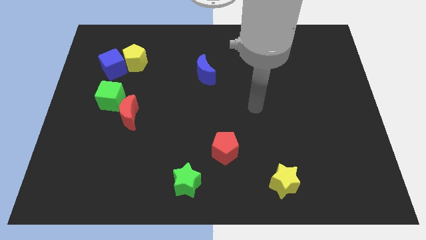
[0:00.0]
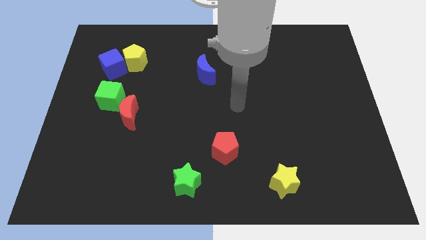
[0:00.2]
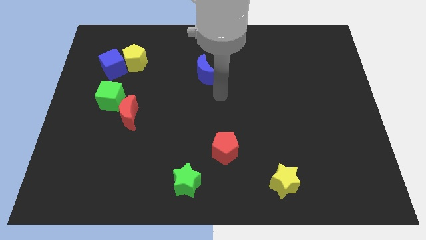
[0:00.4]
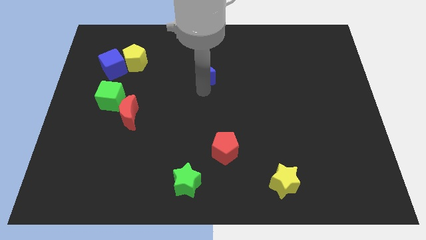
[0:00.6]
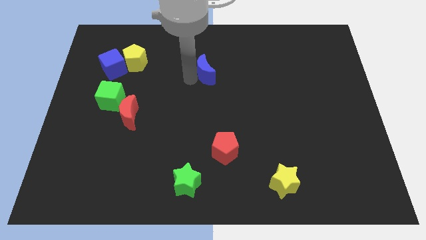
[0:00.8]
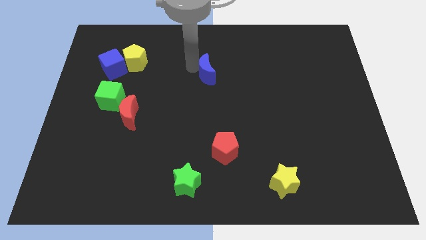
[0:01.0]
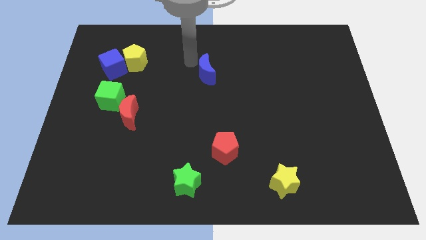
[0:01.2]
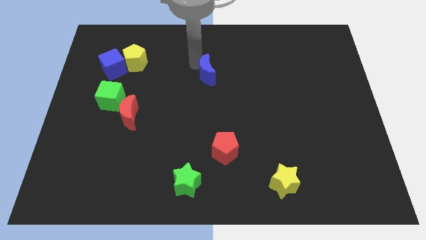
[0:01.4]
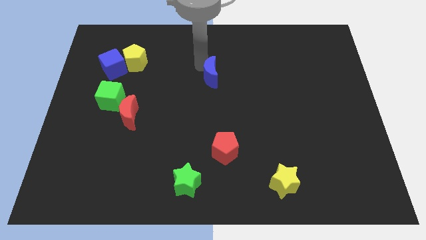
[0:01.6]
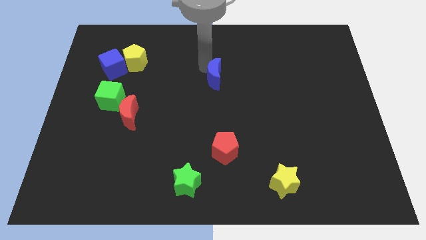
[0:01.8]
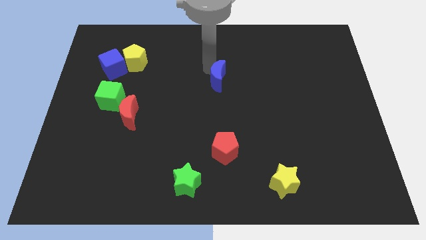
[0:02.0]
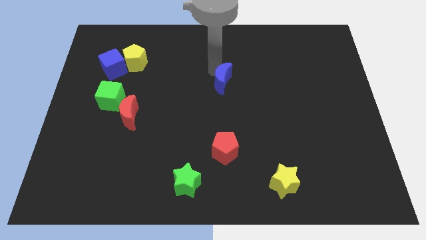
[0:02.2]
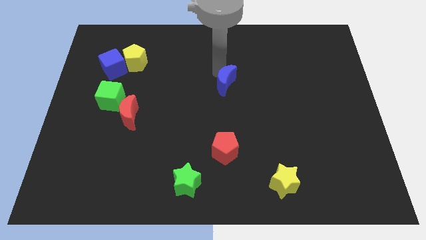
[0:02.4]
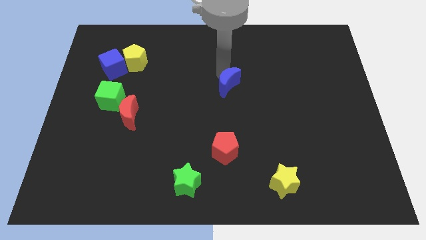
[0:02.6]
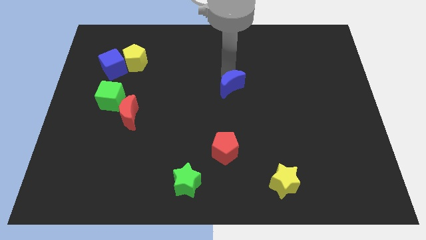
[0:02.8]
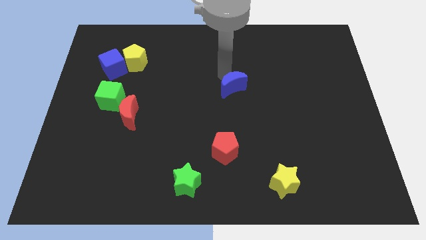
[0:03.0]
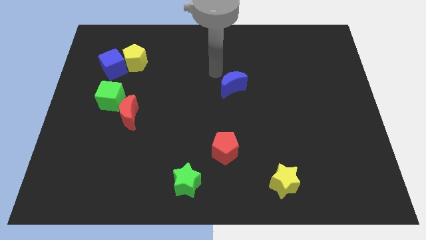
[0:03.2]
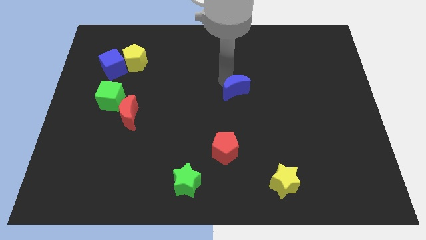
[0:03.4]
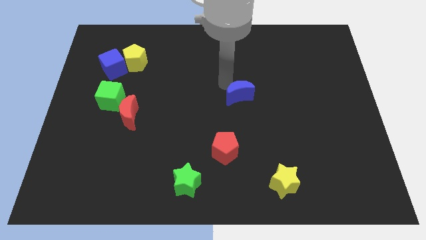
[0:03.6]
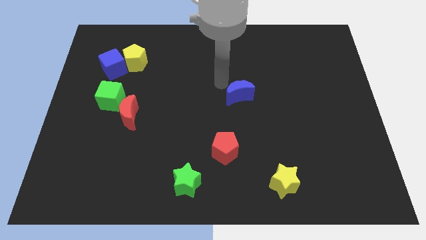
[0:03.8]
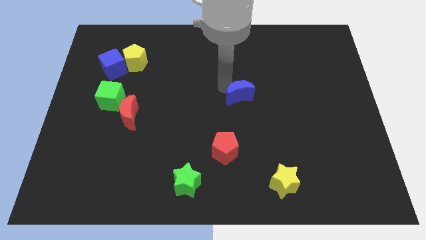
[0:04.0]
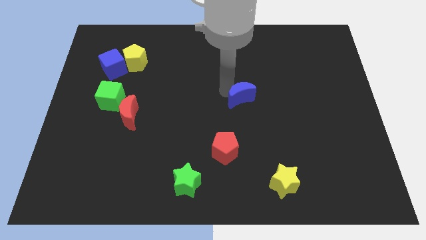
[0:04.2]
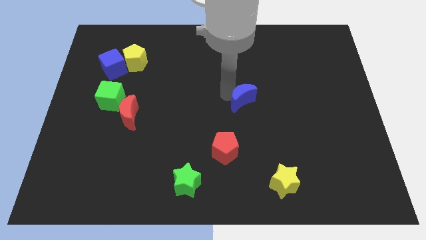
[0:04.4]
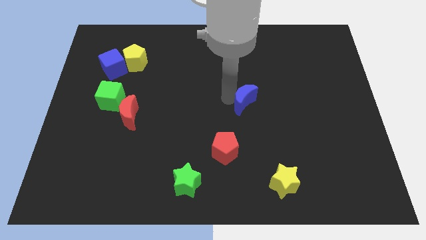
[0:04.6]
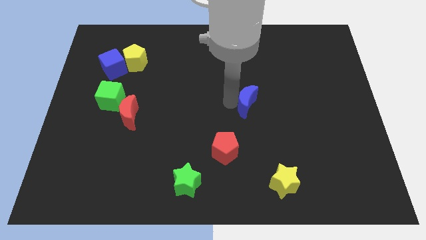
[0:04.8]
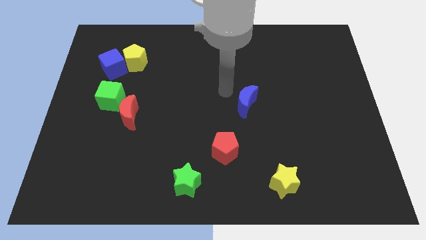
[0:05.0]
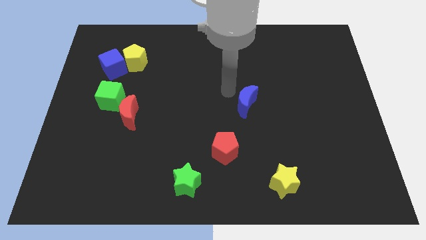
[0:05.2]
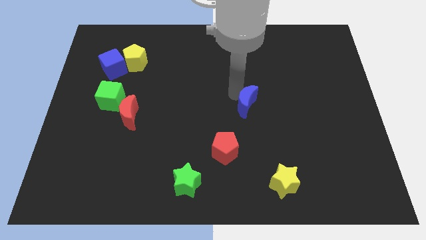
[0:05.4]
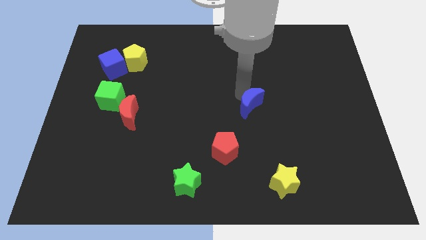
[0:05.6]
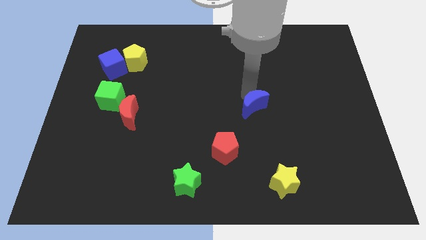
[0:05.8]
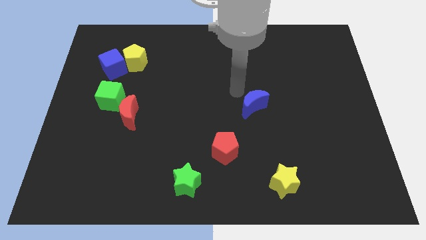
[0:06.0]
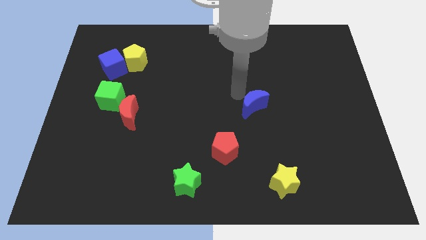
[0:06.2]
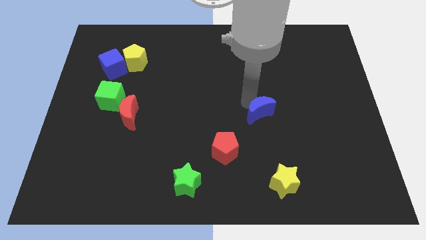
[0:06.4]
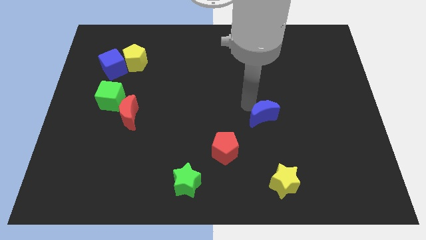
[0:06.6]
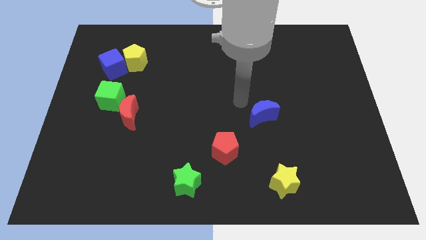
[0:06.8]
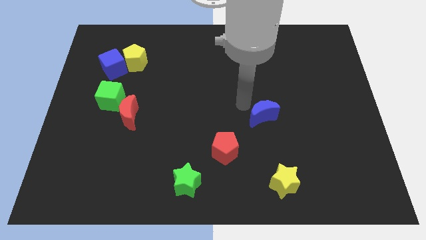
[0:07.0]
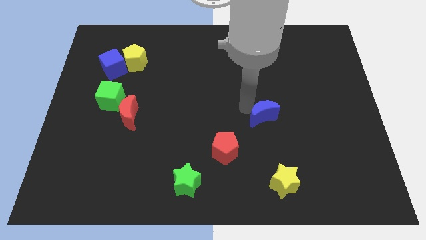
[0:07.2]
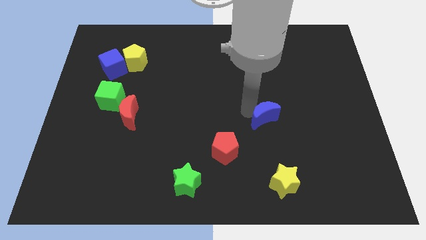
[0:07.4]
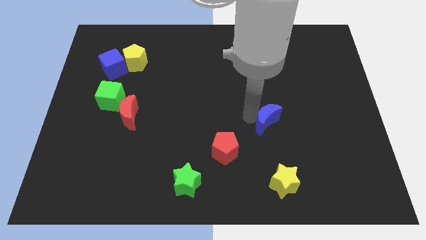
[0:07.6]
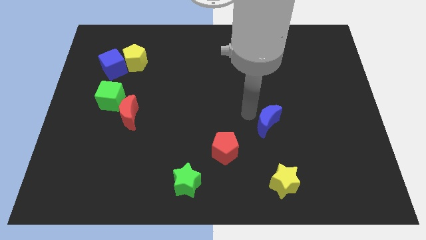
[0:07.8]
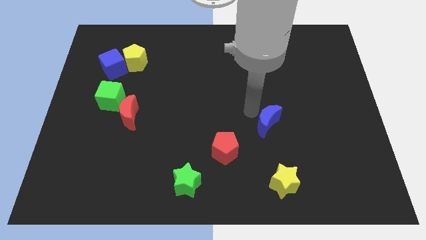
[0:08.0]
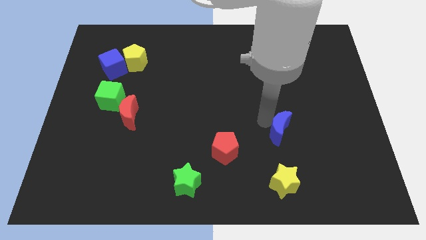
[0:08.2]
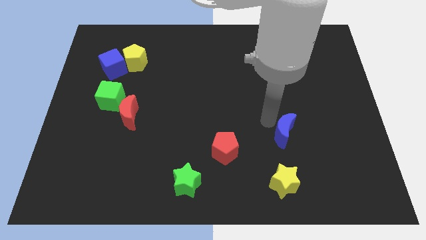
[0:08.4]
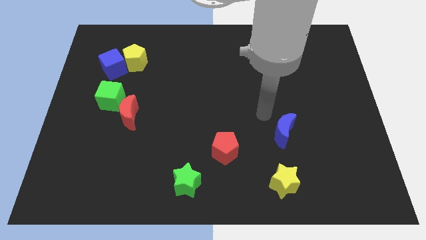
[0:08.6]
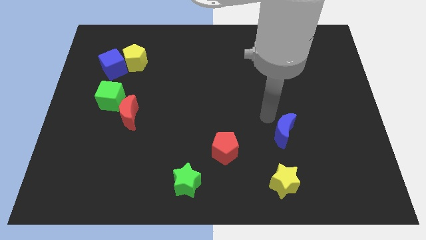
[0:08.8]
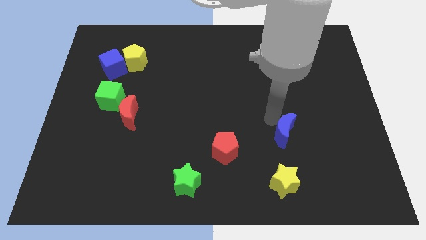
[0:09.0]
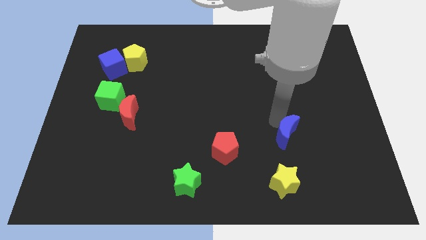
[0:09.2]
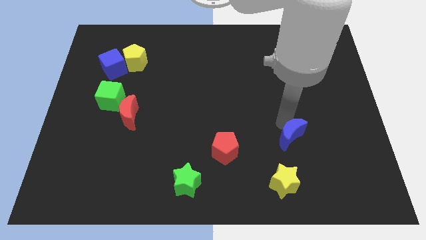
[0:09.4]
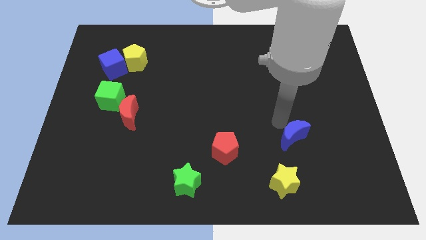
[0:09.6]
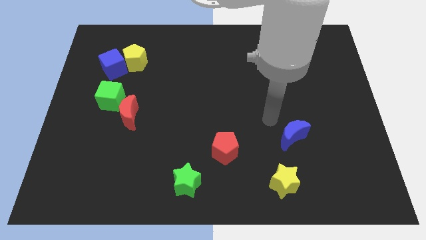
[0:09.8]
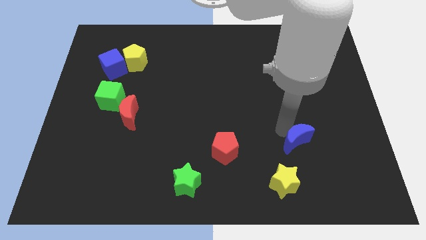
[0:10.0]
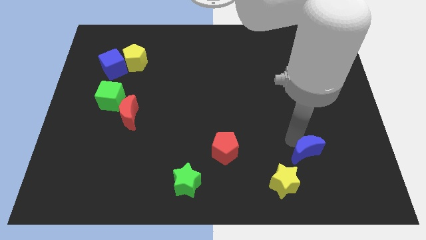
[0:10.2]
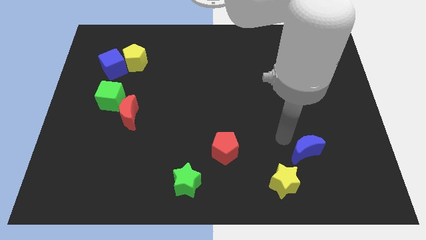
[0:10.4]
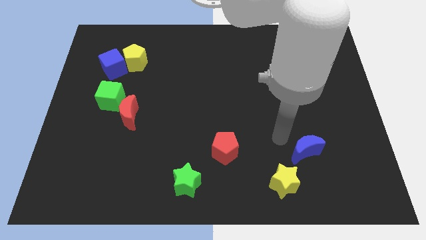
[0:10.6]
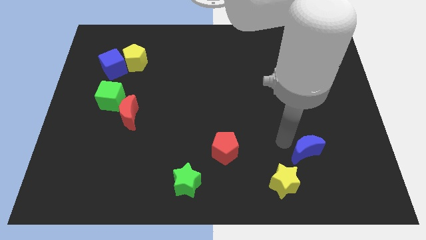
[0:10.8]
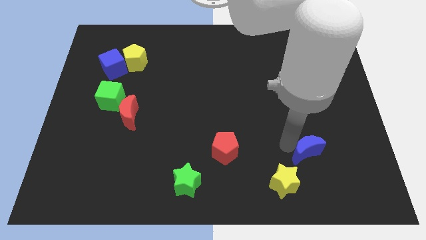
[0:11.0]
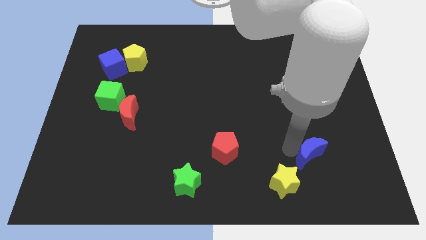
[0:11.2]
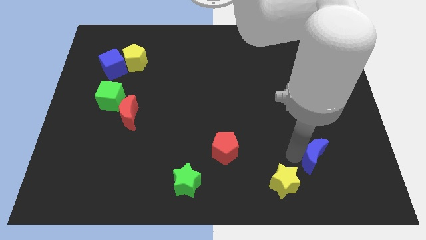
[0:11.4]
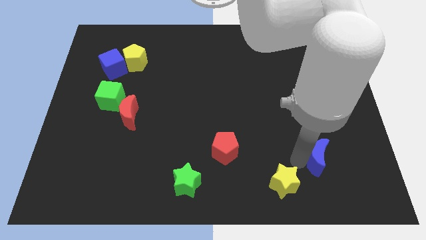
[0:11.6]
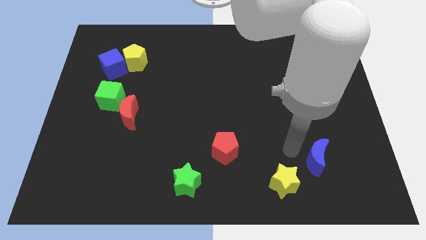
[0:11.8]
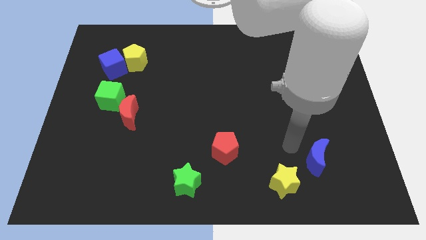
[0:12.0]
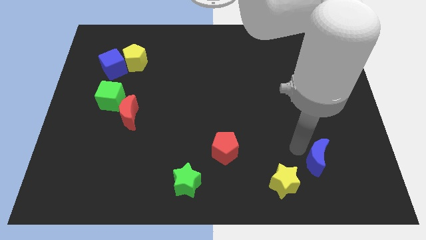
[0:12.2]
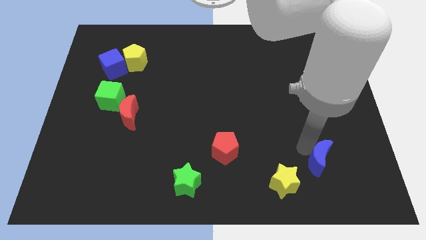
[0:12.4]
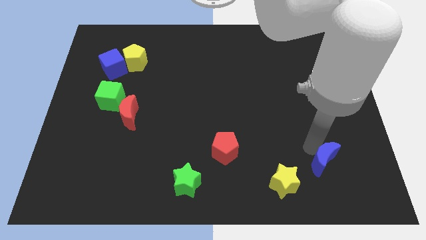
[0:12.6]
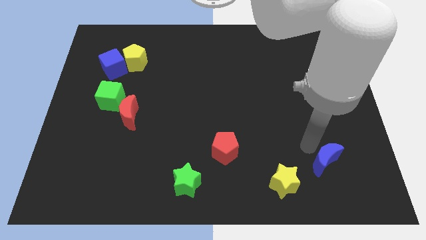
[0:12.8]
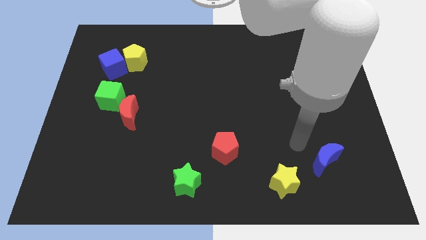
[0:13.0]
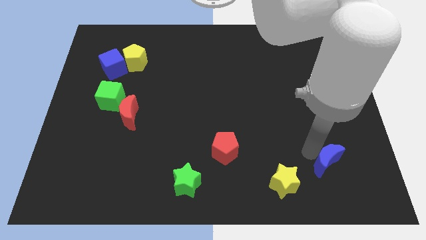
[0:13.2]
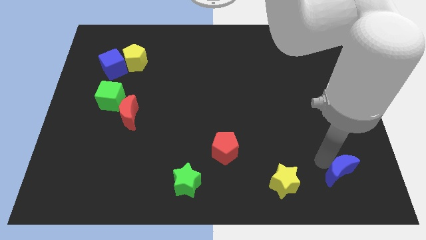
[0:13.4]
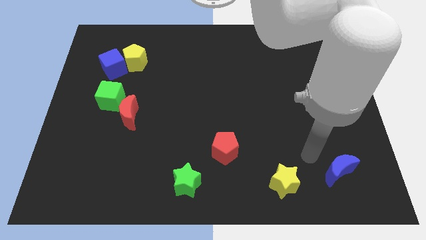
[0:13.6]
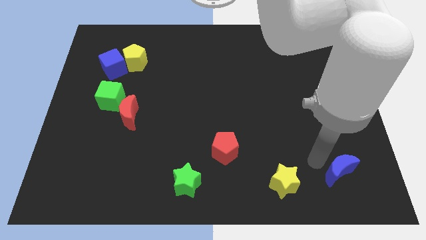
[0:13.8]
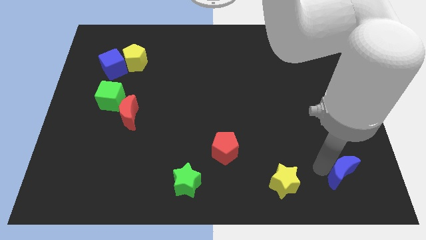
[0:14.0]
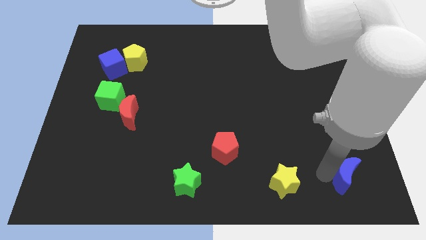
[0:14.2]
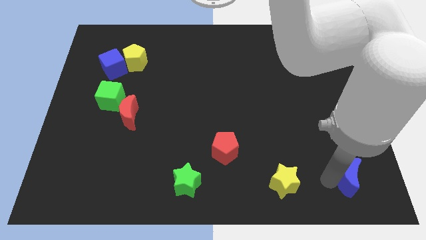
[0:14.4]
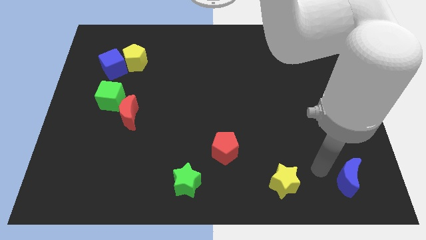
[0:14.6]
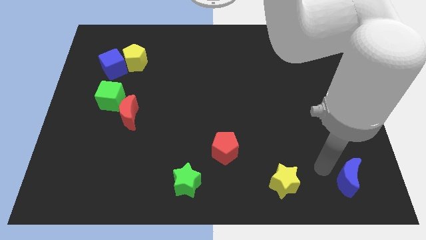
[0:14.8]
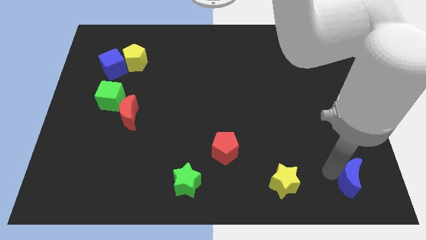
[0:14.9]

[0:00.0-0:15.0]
push the blue moon to the lower right corner

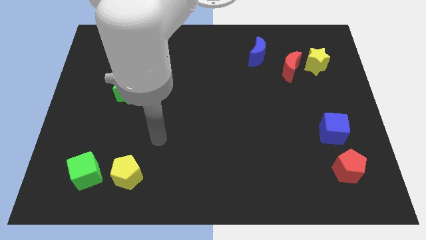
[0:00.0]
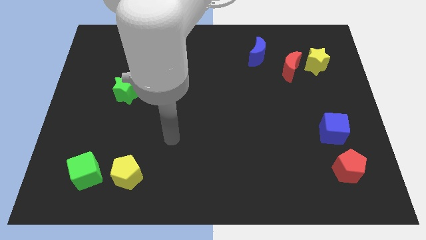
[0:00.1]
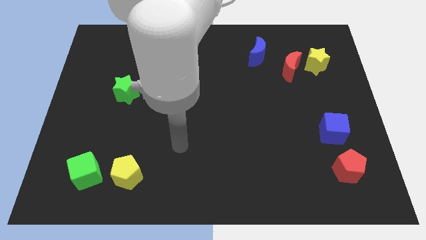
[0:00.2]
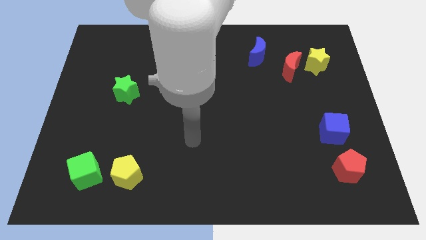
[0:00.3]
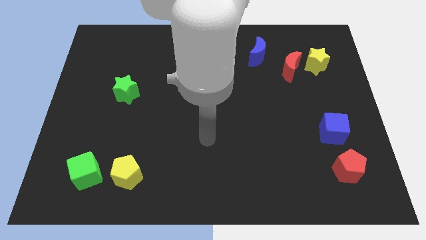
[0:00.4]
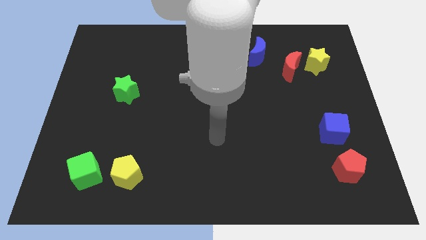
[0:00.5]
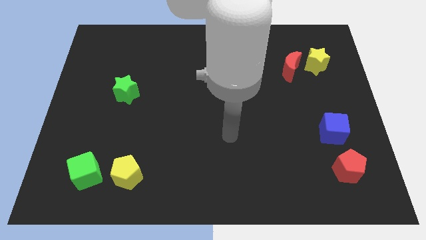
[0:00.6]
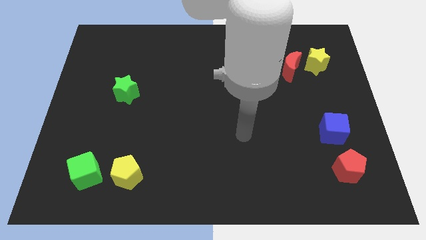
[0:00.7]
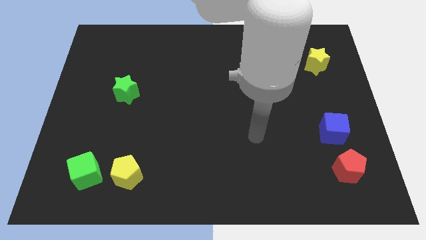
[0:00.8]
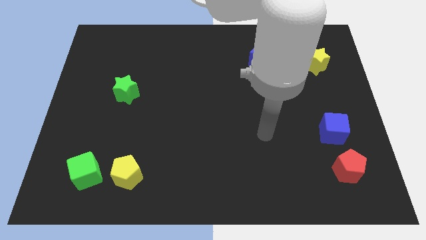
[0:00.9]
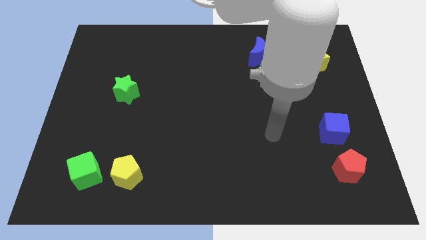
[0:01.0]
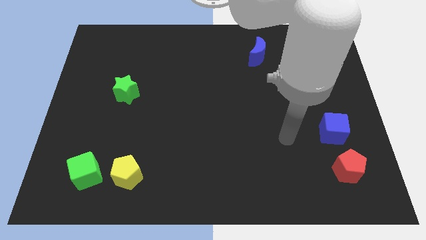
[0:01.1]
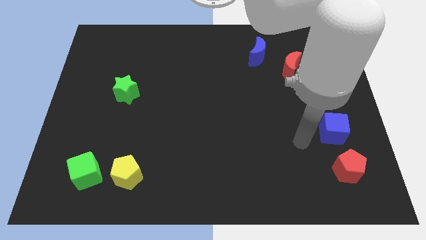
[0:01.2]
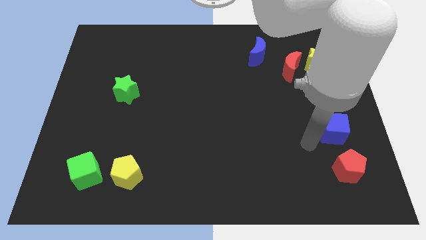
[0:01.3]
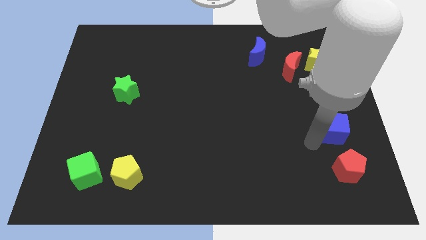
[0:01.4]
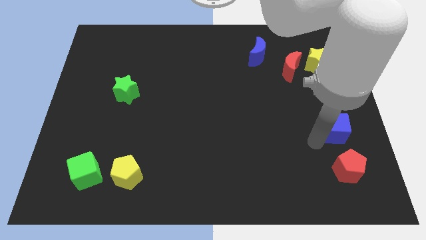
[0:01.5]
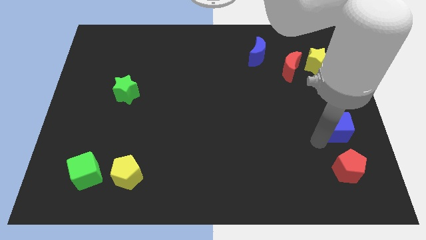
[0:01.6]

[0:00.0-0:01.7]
slide the blue cube to the right side
